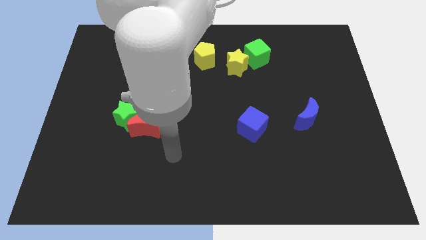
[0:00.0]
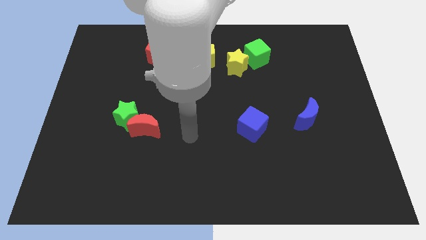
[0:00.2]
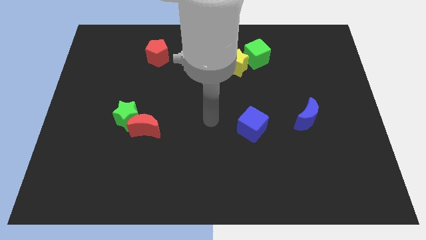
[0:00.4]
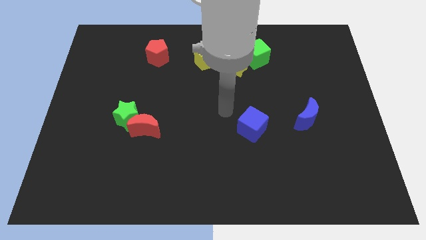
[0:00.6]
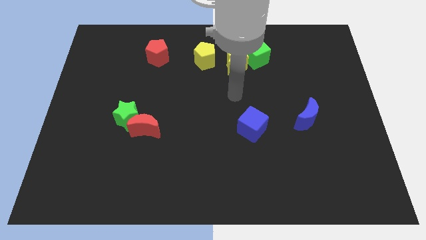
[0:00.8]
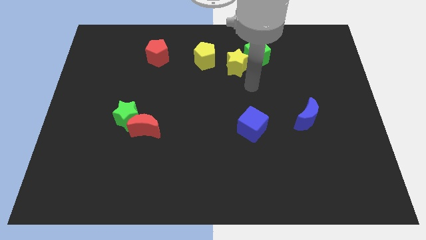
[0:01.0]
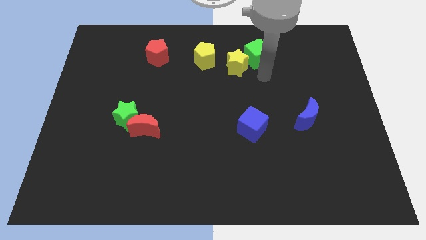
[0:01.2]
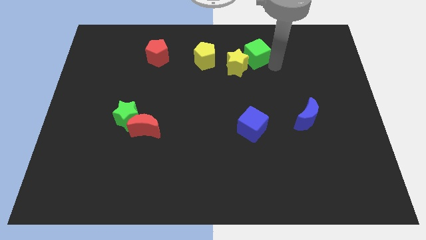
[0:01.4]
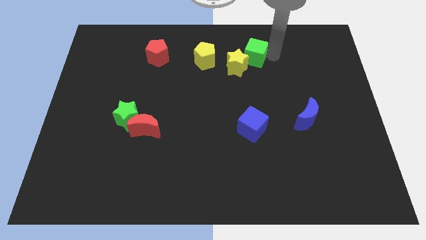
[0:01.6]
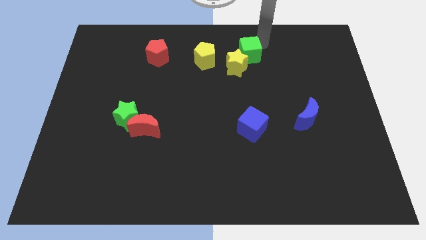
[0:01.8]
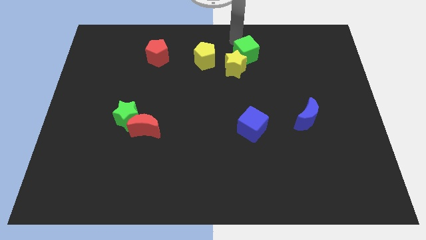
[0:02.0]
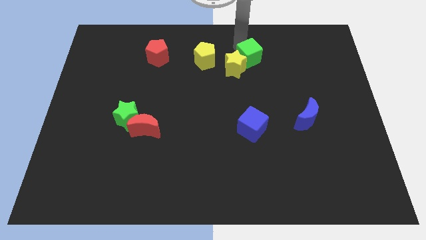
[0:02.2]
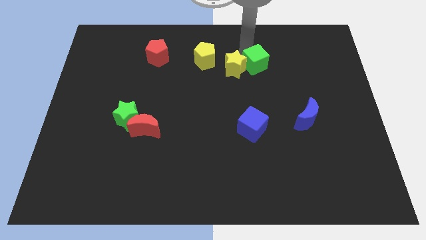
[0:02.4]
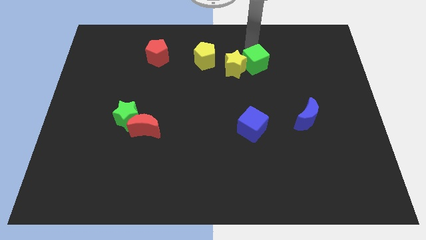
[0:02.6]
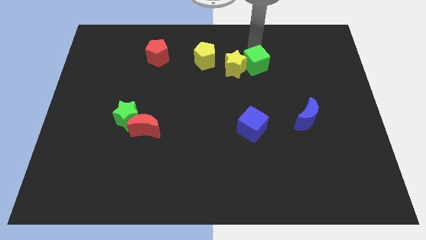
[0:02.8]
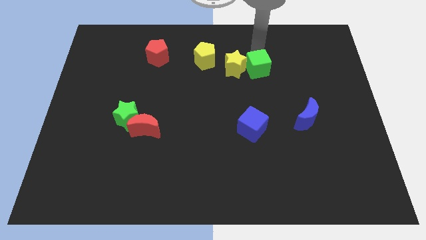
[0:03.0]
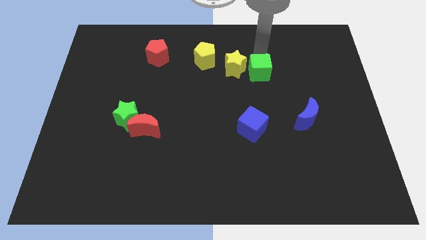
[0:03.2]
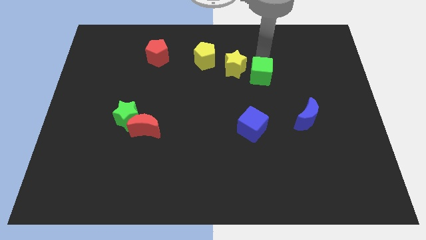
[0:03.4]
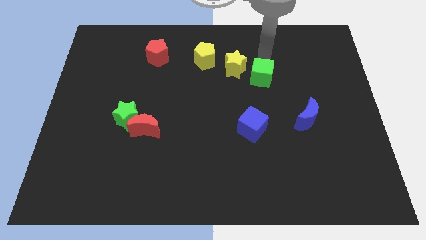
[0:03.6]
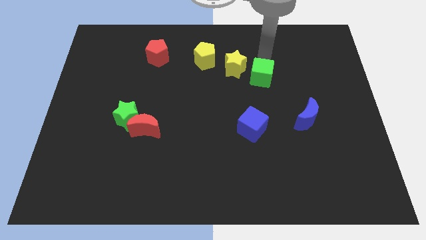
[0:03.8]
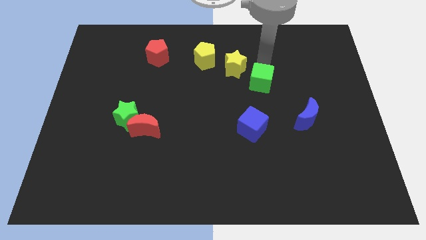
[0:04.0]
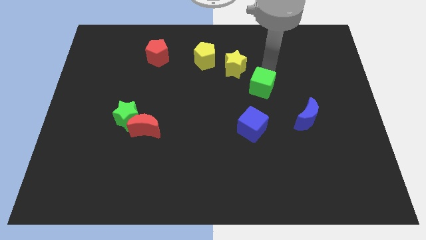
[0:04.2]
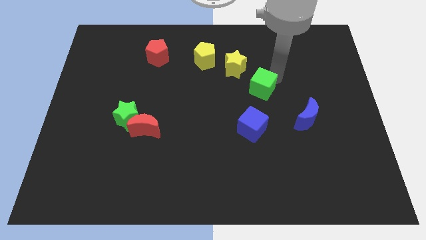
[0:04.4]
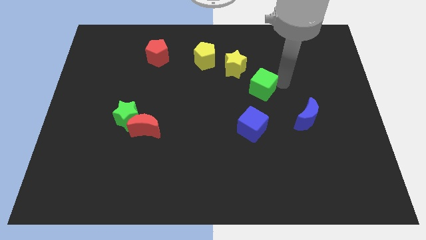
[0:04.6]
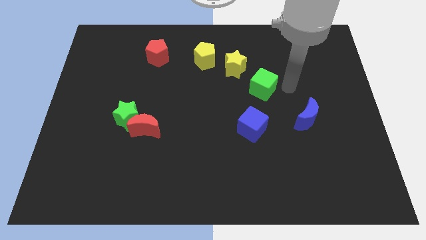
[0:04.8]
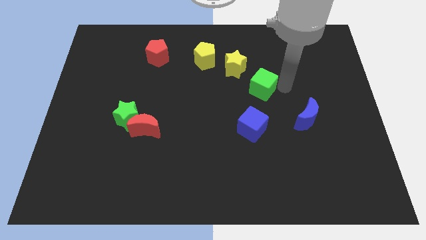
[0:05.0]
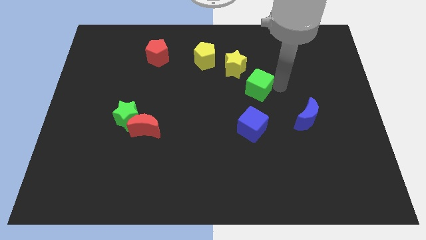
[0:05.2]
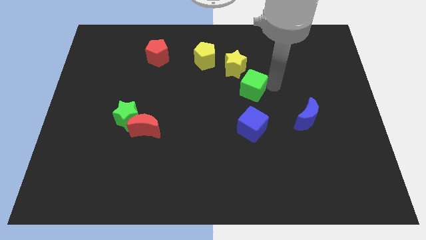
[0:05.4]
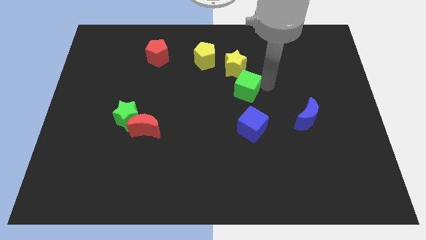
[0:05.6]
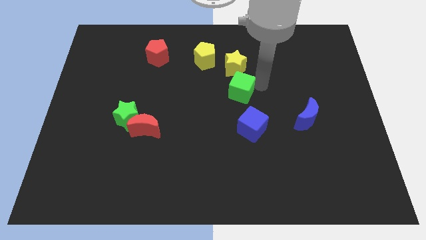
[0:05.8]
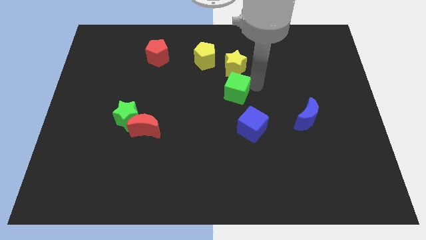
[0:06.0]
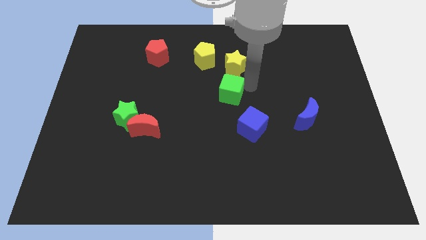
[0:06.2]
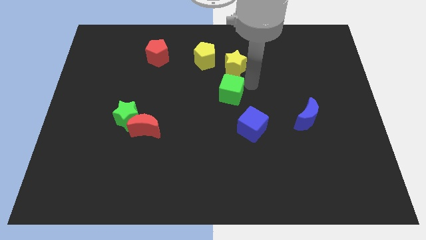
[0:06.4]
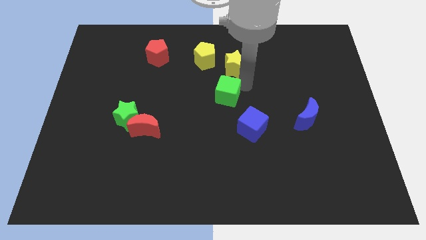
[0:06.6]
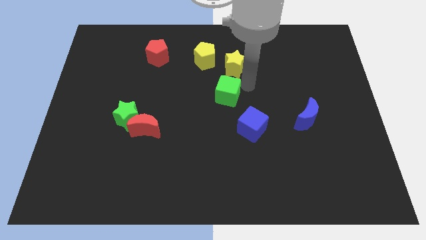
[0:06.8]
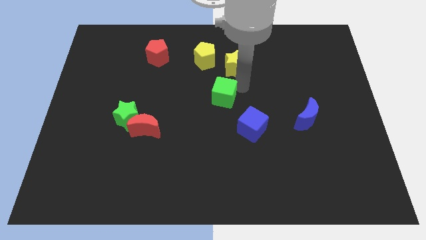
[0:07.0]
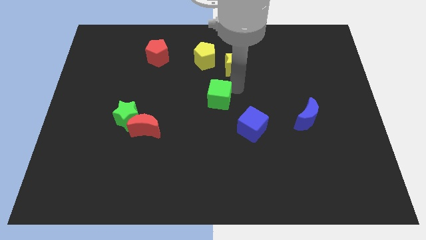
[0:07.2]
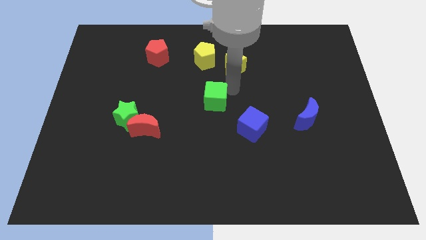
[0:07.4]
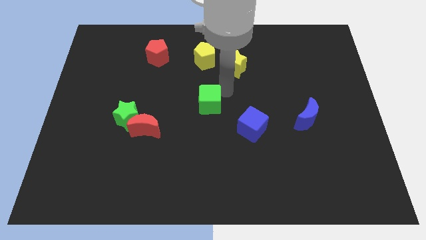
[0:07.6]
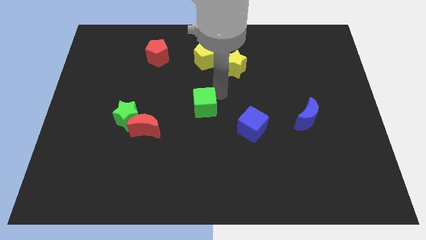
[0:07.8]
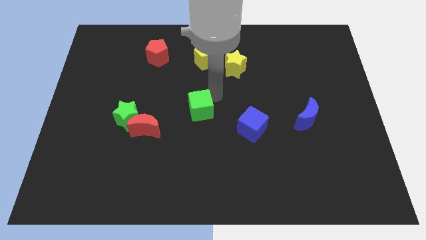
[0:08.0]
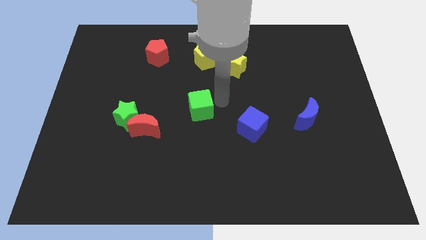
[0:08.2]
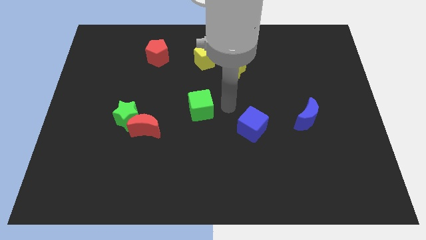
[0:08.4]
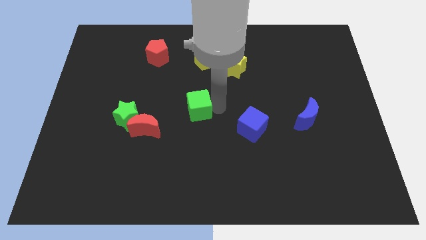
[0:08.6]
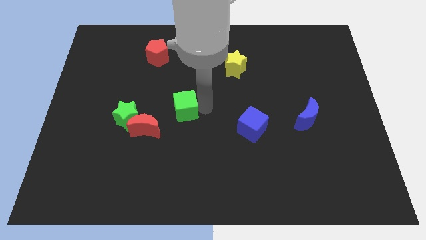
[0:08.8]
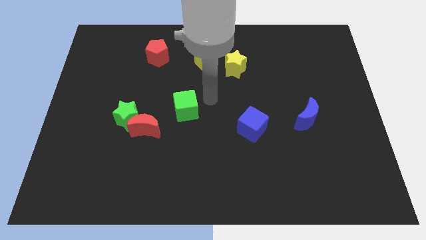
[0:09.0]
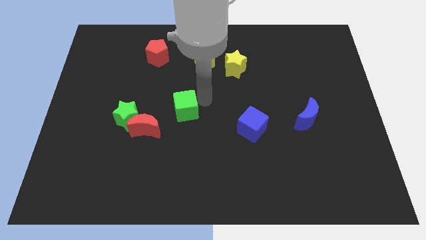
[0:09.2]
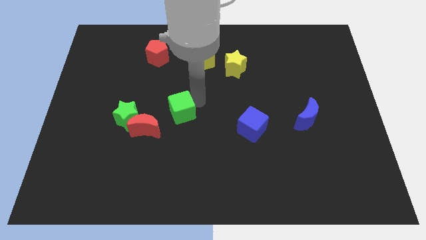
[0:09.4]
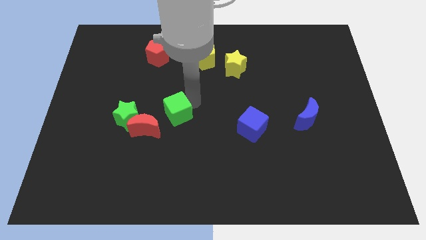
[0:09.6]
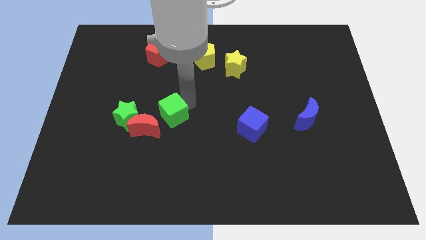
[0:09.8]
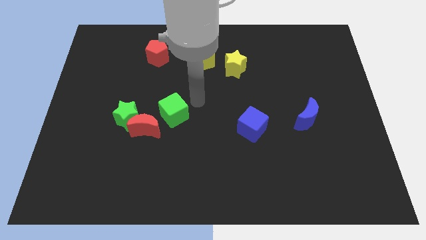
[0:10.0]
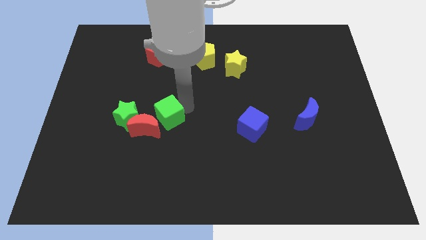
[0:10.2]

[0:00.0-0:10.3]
slide the green cube to the red moon

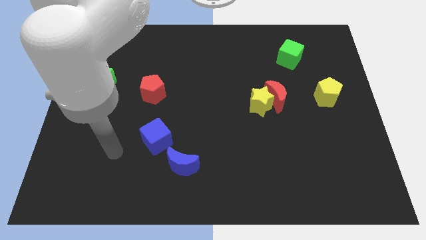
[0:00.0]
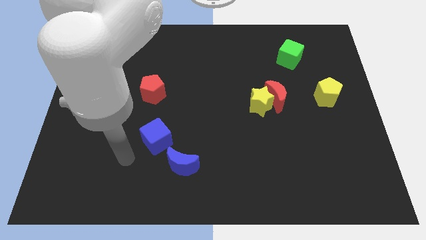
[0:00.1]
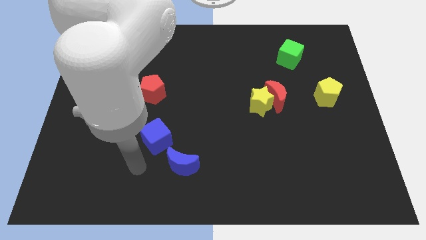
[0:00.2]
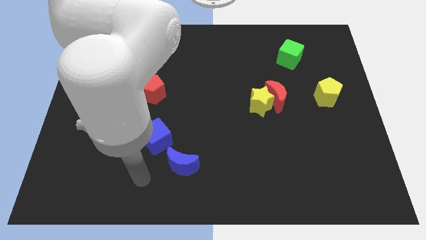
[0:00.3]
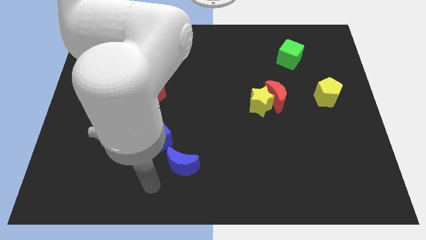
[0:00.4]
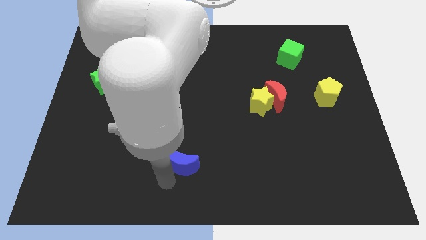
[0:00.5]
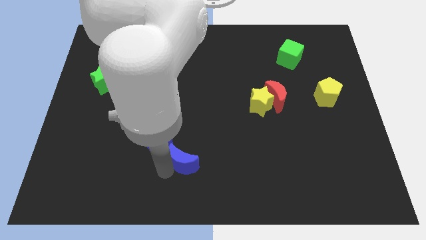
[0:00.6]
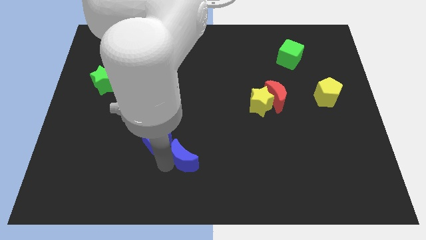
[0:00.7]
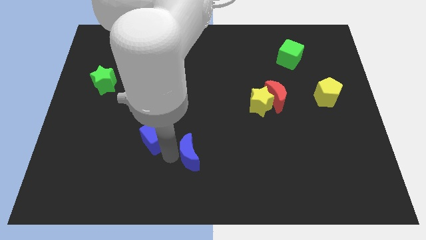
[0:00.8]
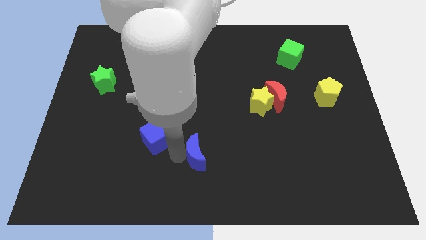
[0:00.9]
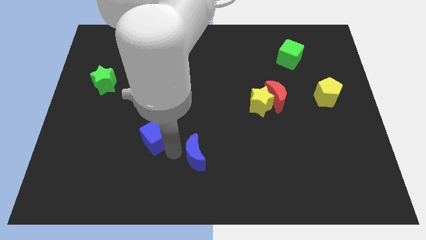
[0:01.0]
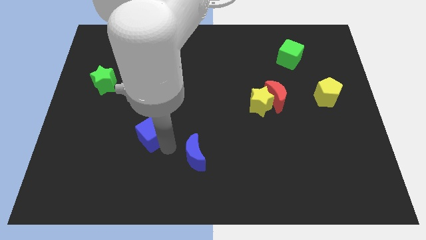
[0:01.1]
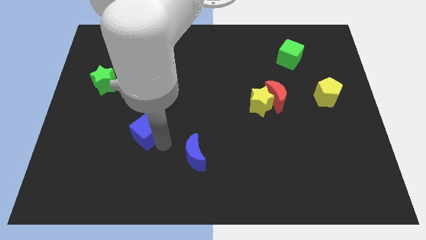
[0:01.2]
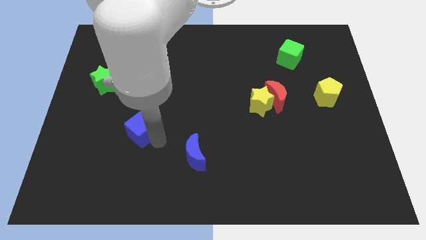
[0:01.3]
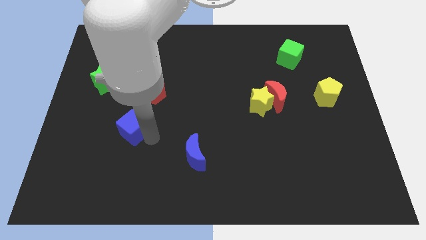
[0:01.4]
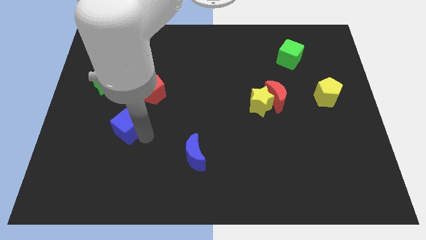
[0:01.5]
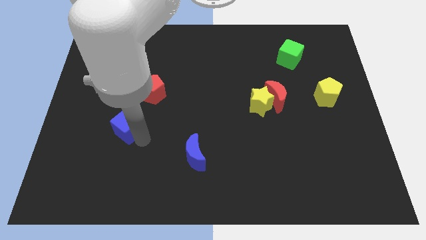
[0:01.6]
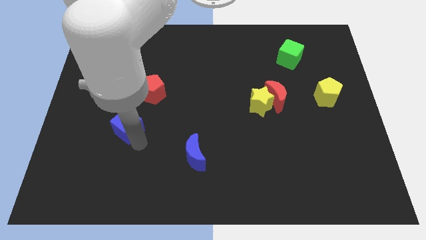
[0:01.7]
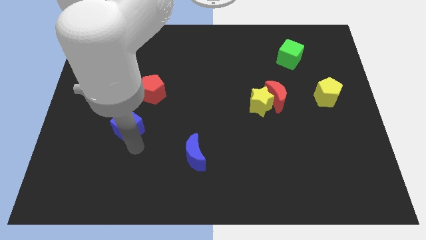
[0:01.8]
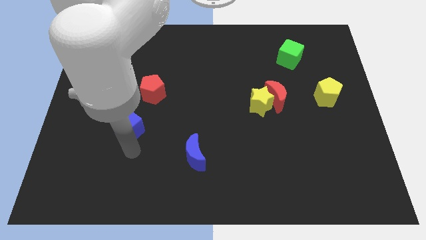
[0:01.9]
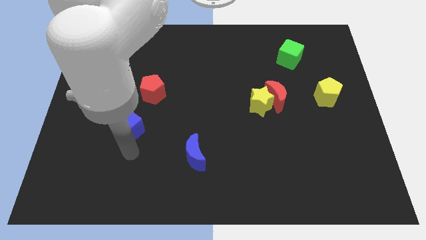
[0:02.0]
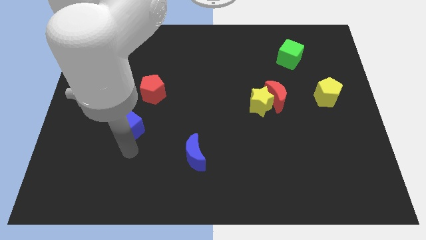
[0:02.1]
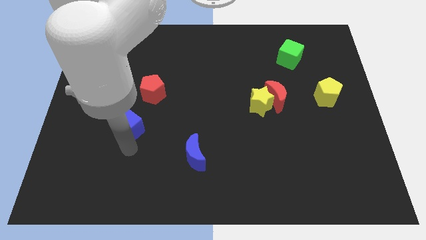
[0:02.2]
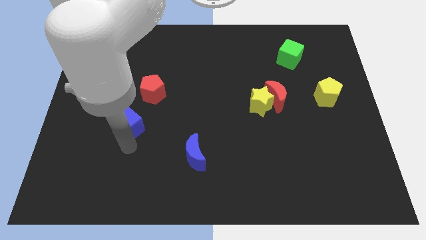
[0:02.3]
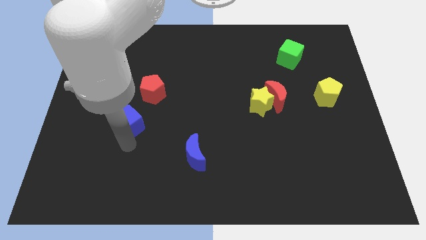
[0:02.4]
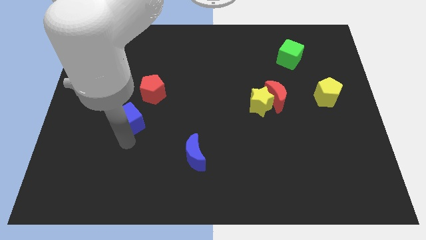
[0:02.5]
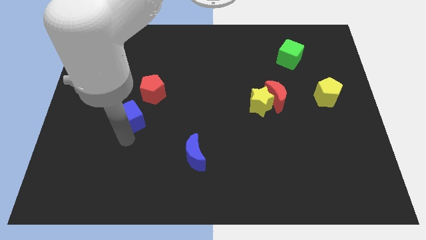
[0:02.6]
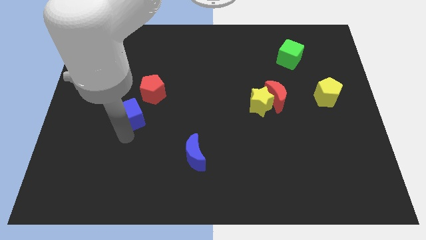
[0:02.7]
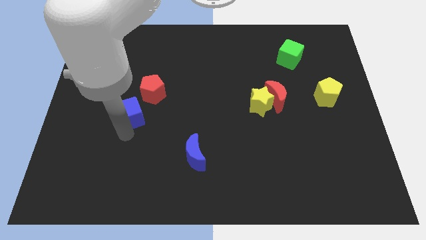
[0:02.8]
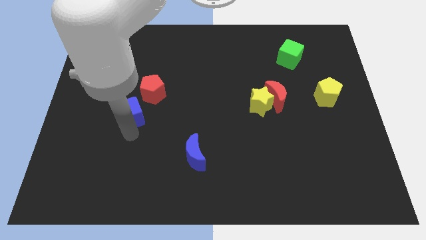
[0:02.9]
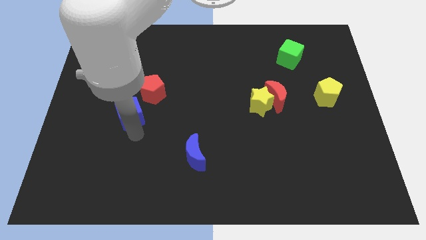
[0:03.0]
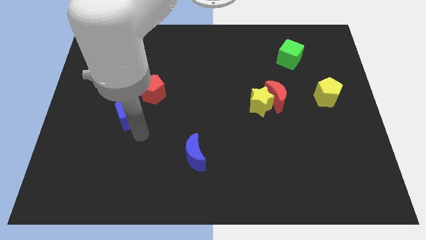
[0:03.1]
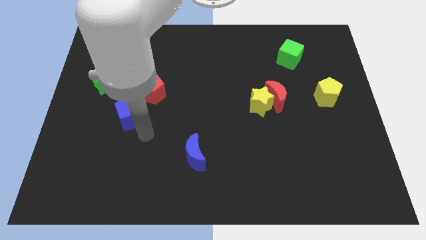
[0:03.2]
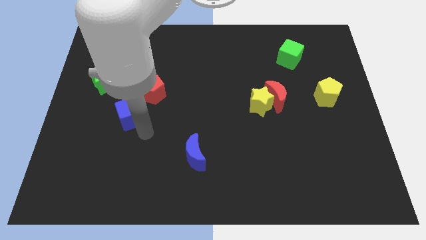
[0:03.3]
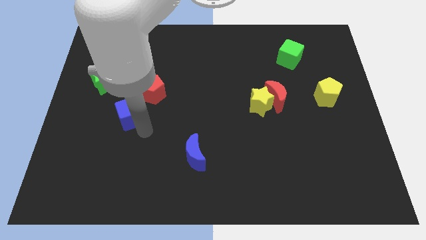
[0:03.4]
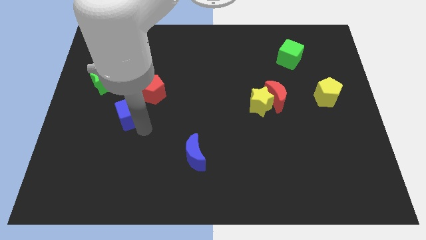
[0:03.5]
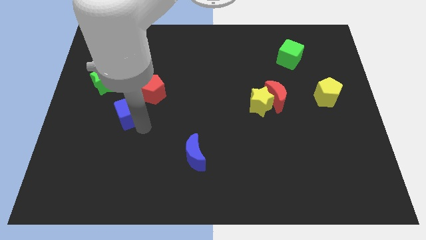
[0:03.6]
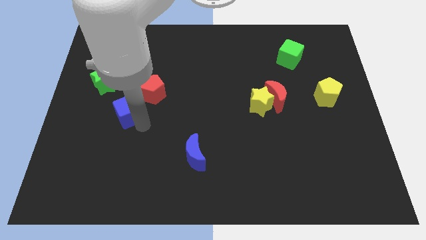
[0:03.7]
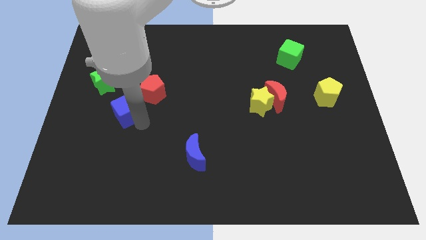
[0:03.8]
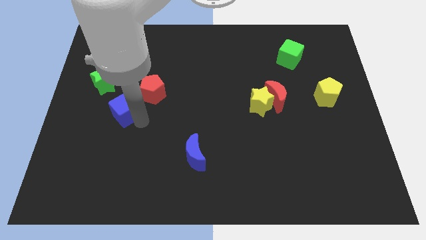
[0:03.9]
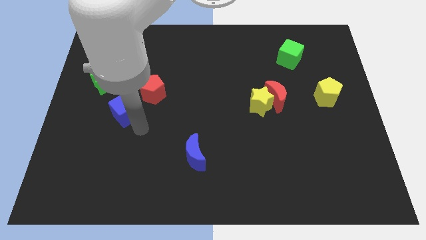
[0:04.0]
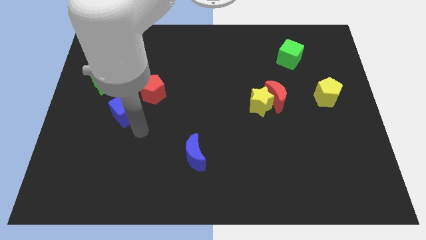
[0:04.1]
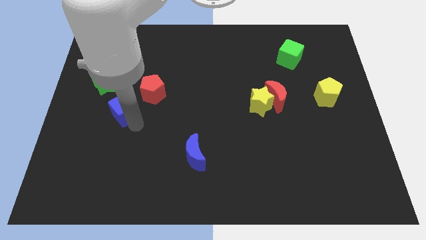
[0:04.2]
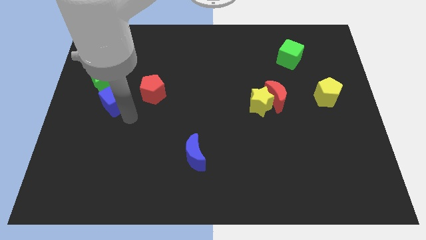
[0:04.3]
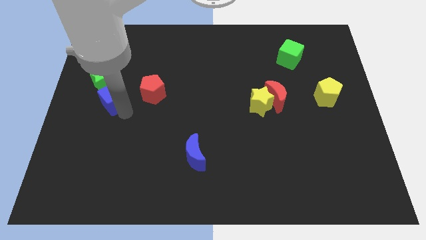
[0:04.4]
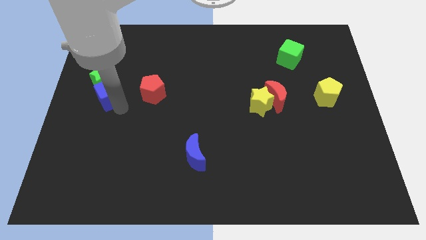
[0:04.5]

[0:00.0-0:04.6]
slide the blue cube next to the green star
